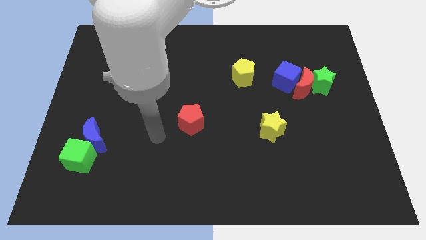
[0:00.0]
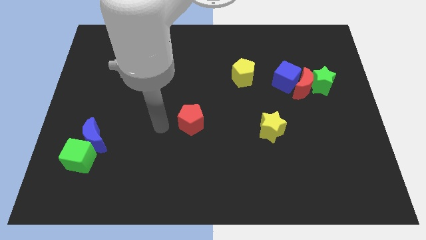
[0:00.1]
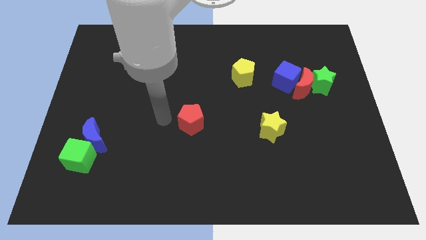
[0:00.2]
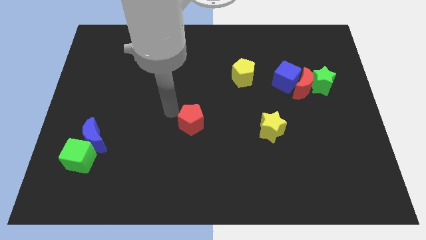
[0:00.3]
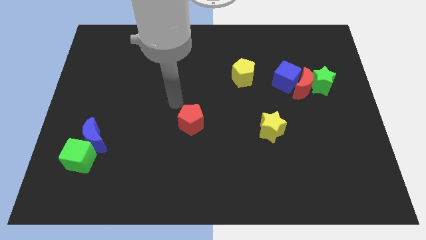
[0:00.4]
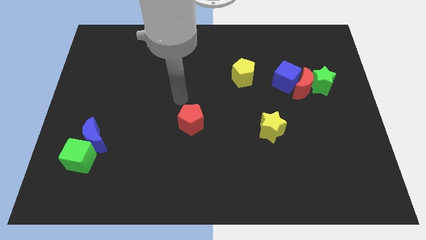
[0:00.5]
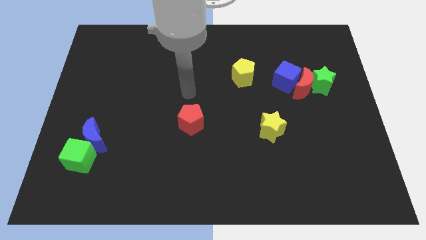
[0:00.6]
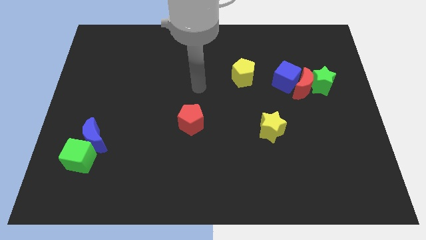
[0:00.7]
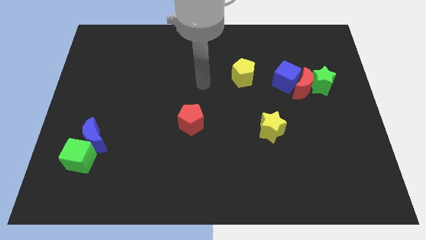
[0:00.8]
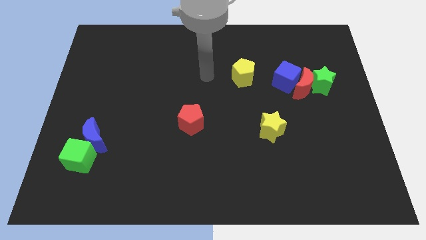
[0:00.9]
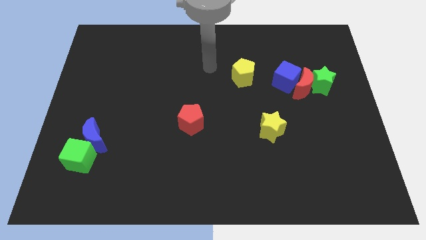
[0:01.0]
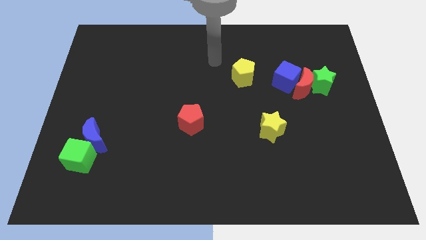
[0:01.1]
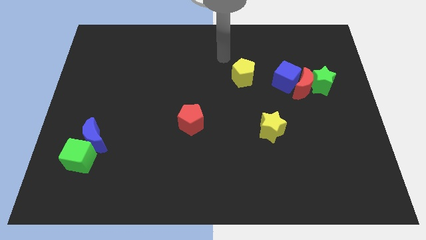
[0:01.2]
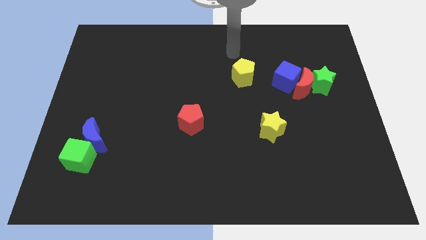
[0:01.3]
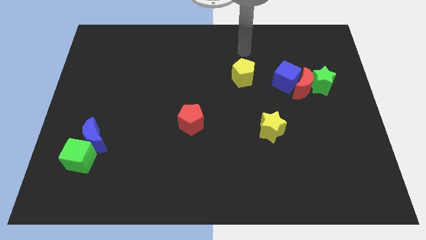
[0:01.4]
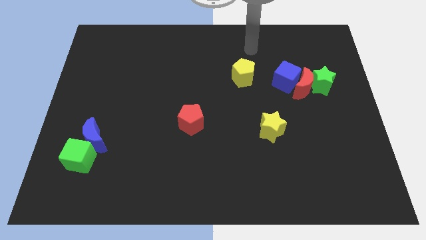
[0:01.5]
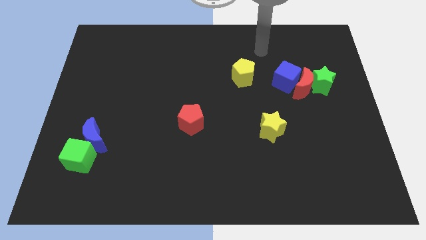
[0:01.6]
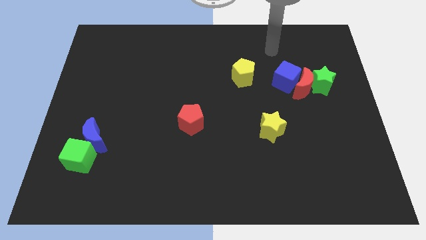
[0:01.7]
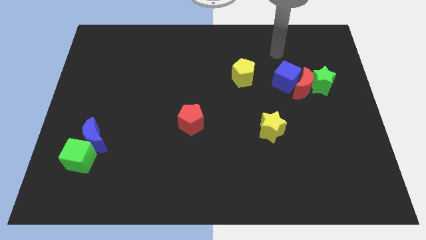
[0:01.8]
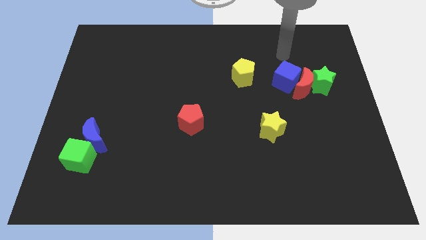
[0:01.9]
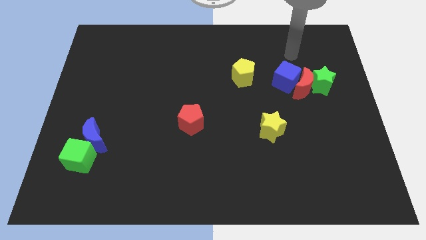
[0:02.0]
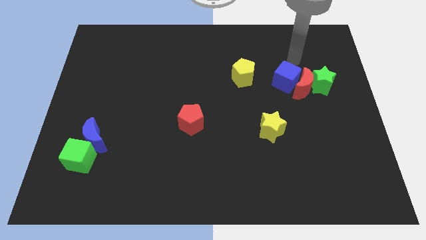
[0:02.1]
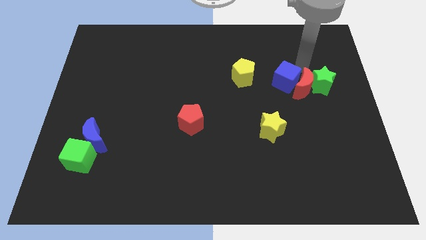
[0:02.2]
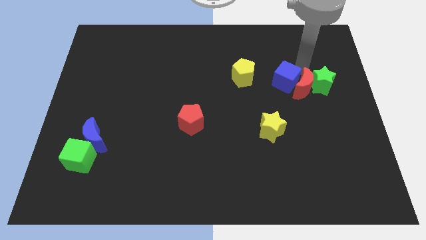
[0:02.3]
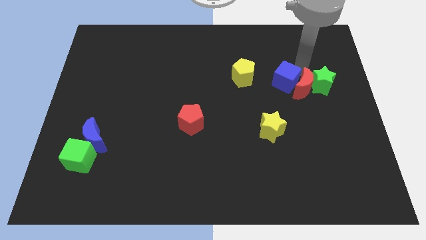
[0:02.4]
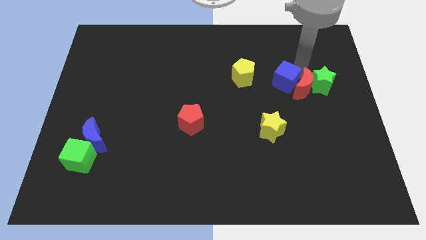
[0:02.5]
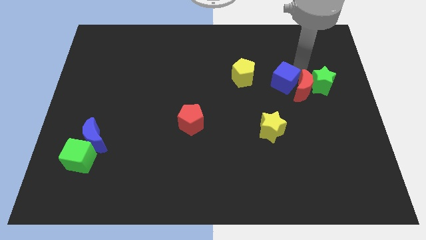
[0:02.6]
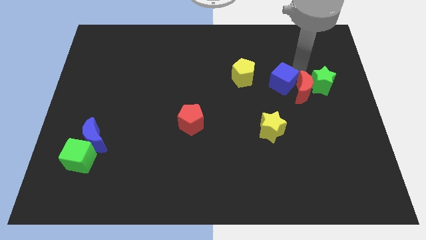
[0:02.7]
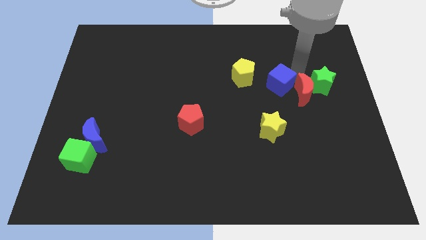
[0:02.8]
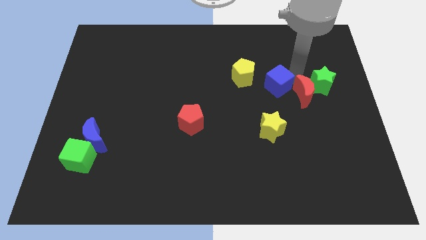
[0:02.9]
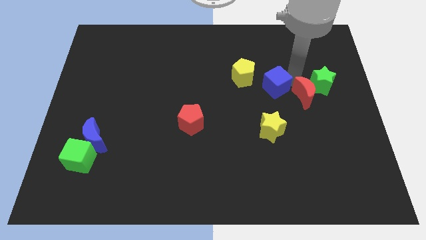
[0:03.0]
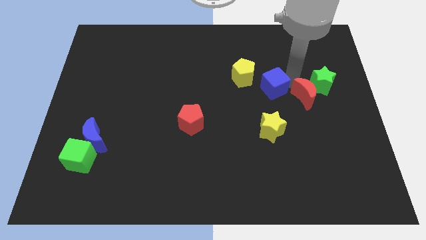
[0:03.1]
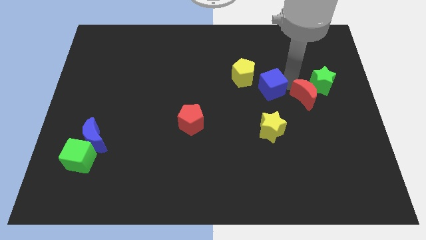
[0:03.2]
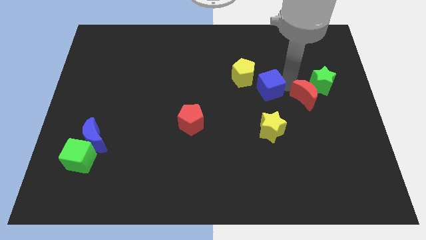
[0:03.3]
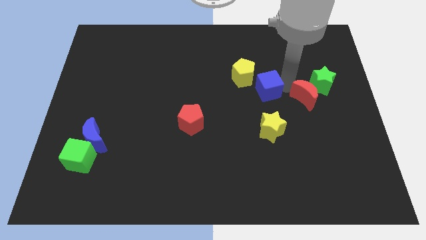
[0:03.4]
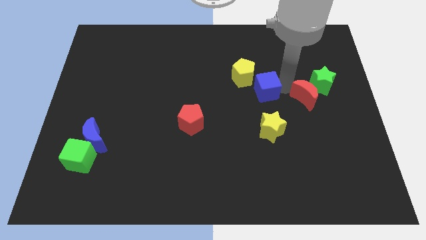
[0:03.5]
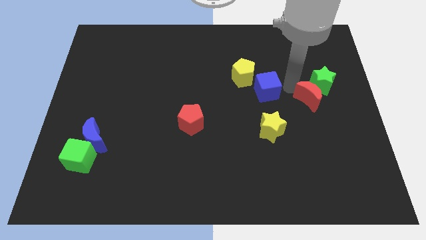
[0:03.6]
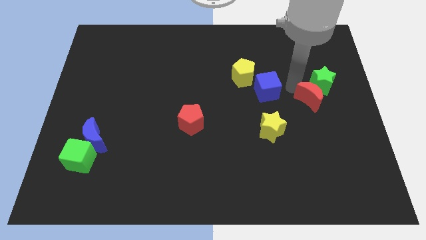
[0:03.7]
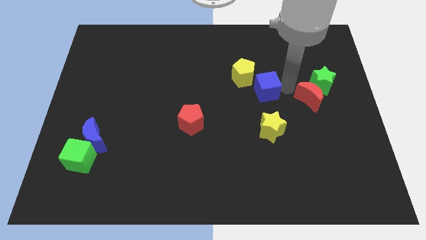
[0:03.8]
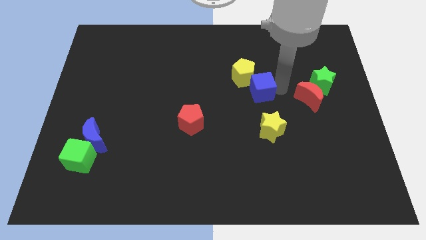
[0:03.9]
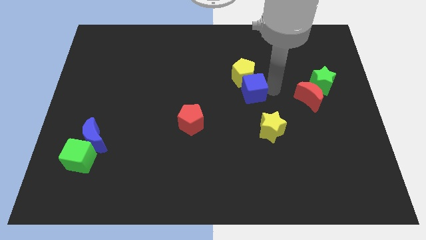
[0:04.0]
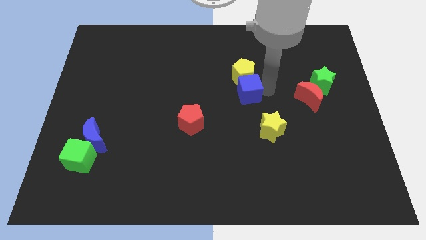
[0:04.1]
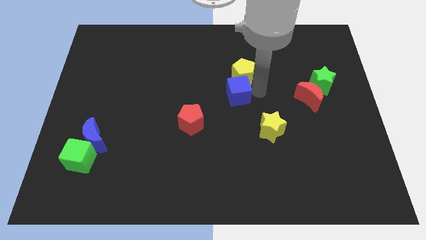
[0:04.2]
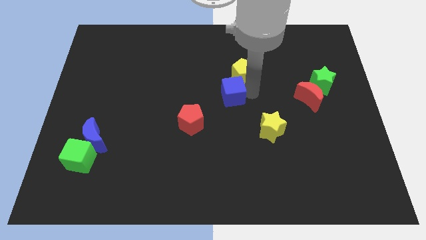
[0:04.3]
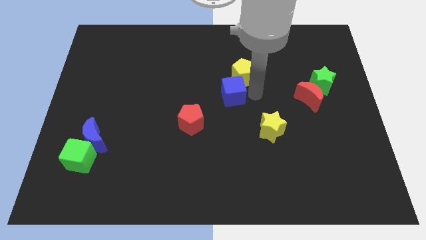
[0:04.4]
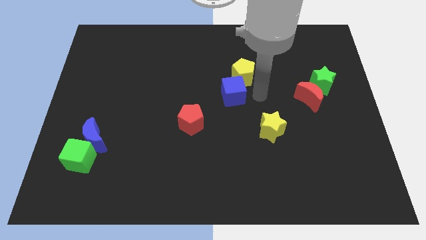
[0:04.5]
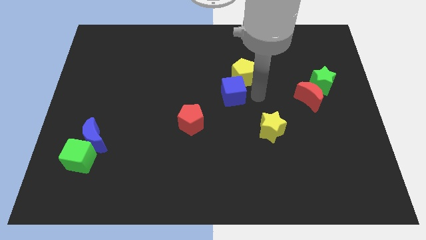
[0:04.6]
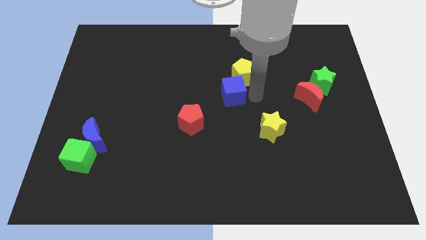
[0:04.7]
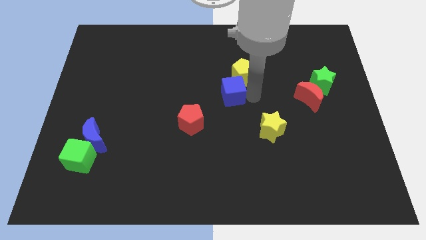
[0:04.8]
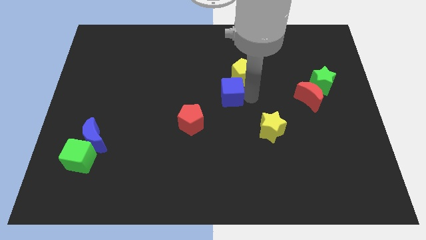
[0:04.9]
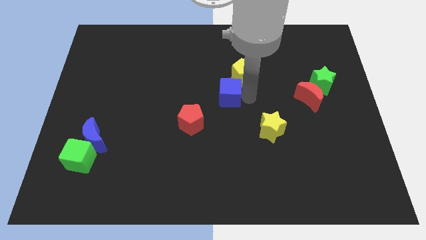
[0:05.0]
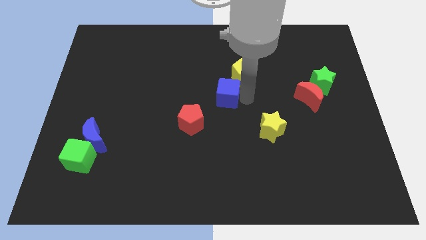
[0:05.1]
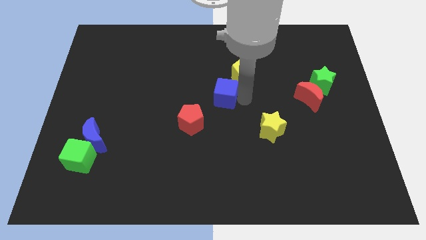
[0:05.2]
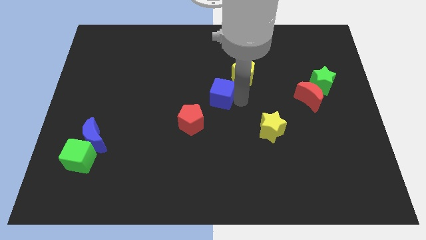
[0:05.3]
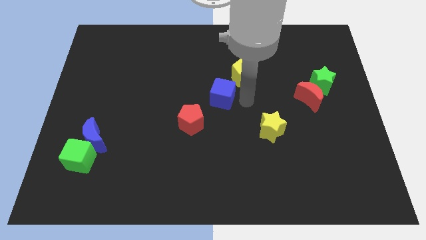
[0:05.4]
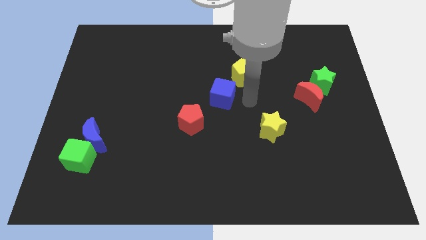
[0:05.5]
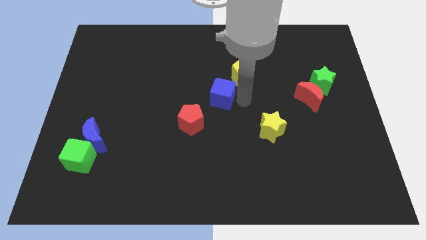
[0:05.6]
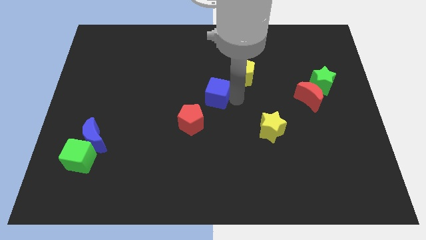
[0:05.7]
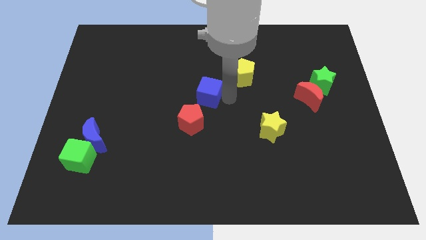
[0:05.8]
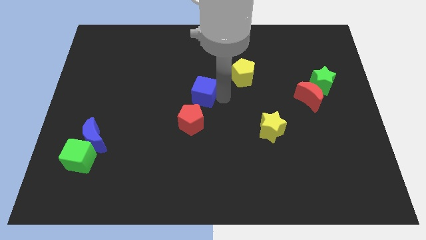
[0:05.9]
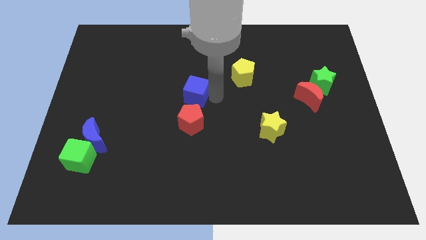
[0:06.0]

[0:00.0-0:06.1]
move the blue cube to the left

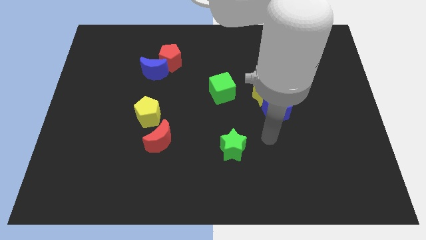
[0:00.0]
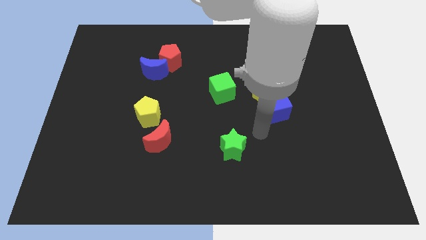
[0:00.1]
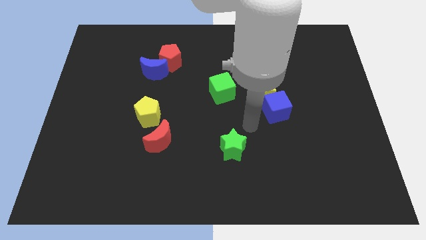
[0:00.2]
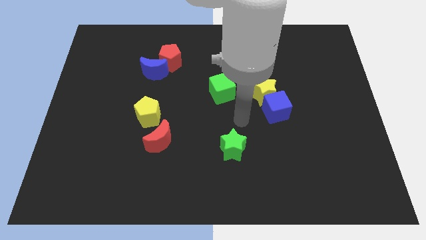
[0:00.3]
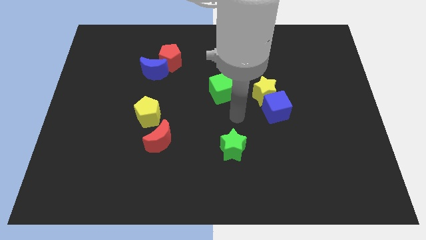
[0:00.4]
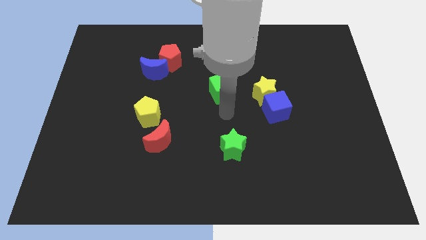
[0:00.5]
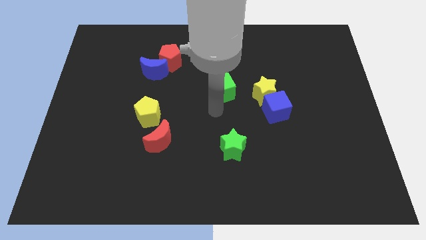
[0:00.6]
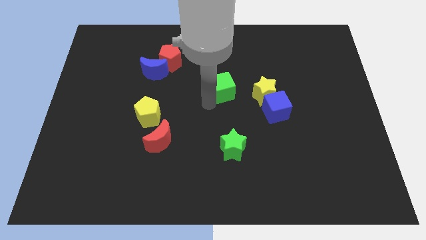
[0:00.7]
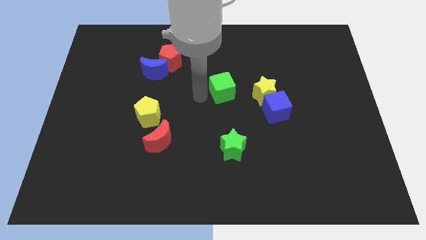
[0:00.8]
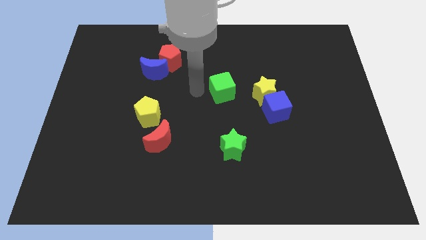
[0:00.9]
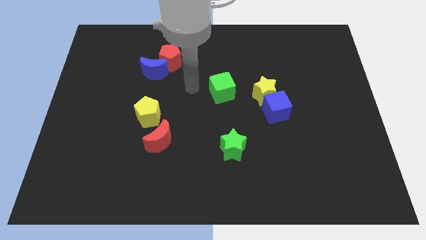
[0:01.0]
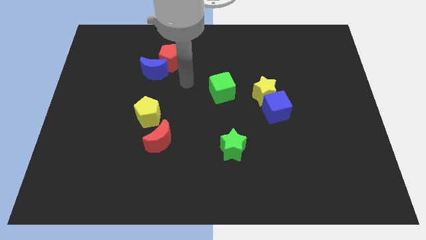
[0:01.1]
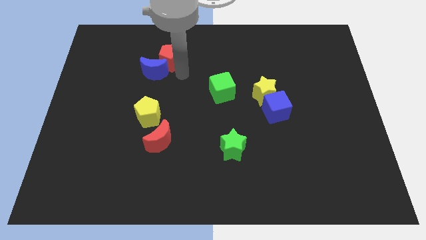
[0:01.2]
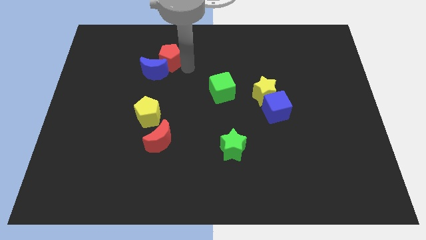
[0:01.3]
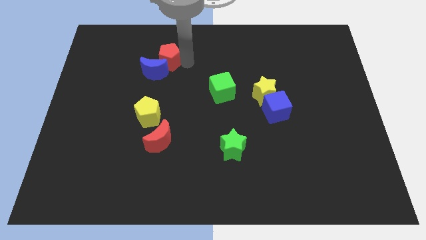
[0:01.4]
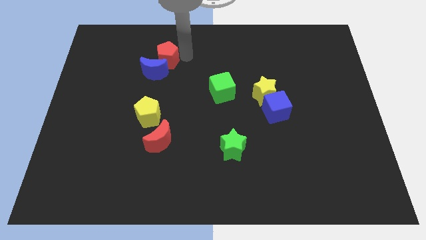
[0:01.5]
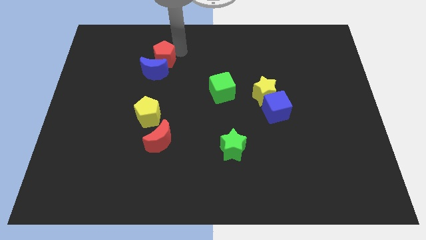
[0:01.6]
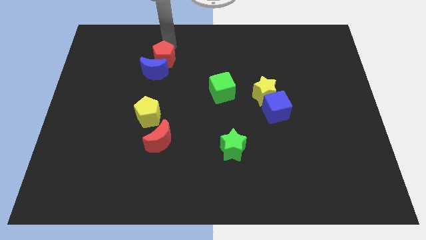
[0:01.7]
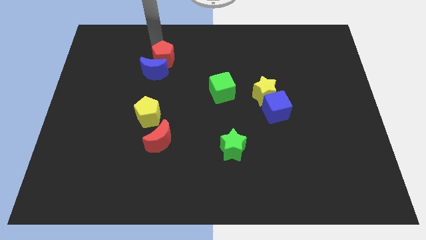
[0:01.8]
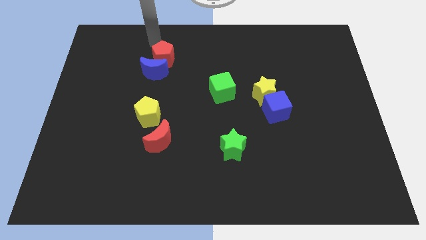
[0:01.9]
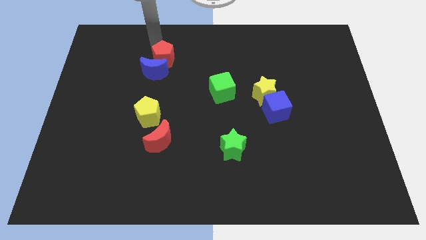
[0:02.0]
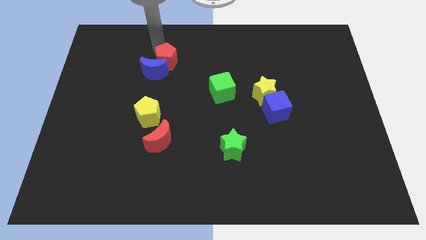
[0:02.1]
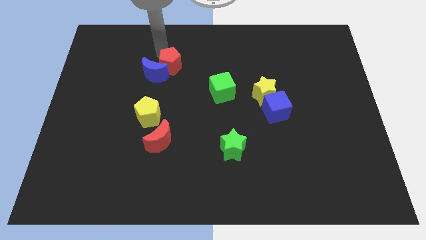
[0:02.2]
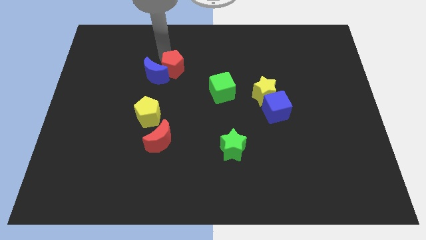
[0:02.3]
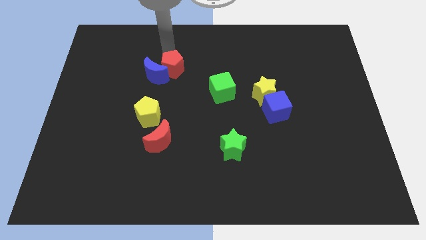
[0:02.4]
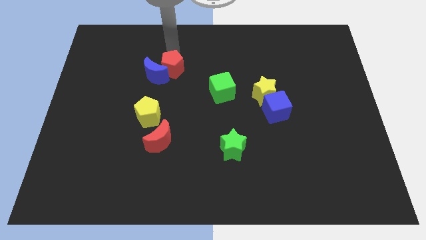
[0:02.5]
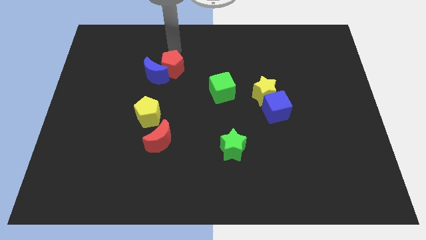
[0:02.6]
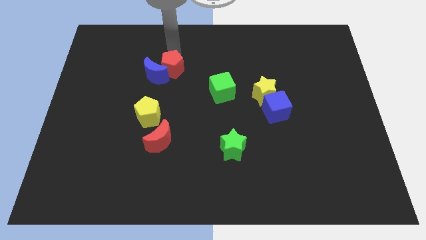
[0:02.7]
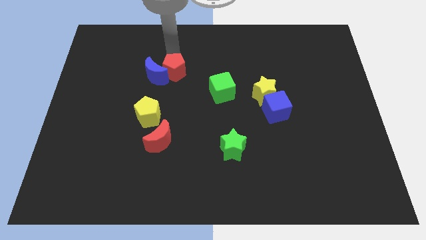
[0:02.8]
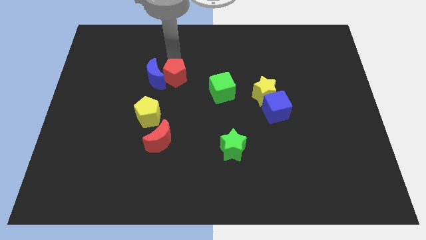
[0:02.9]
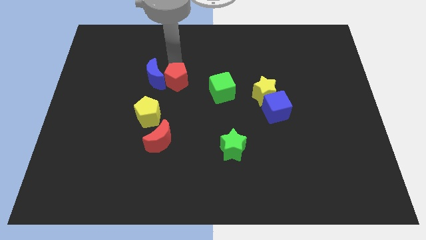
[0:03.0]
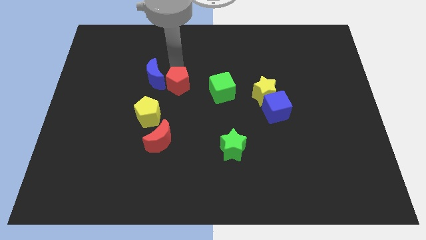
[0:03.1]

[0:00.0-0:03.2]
move the red pentagon a bit down
